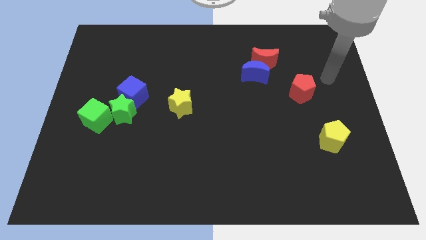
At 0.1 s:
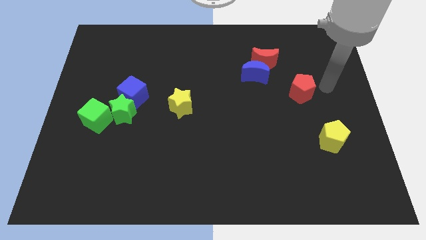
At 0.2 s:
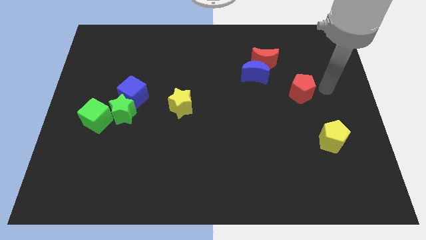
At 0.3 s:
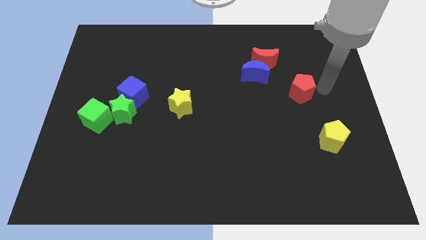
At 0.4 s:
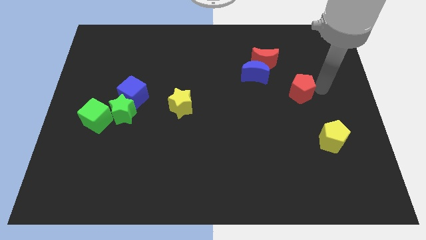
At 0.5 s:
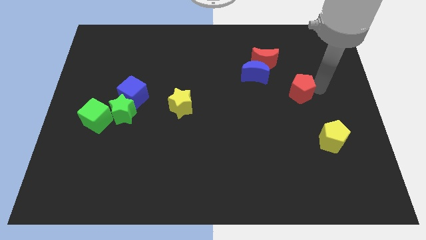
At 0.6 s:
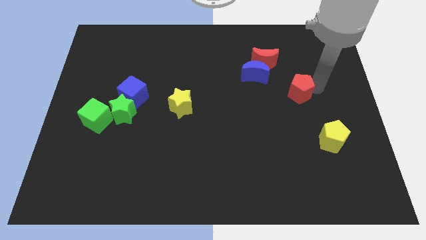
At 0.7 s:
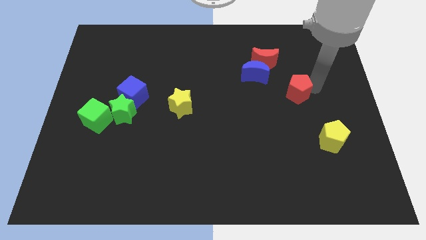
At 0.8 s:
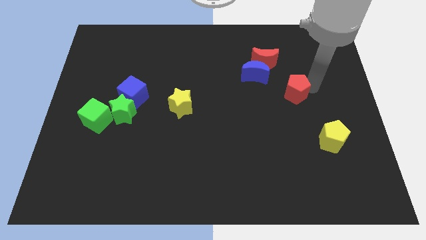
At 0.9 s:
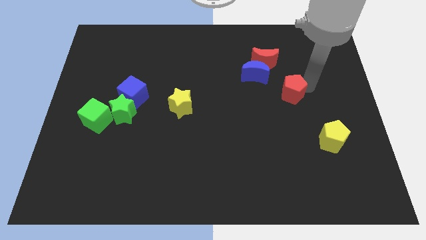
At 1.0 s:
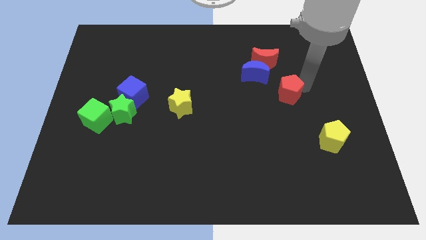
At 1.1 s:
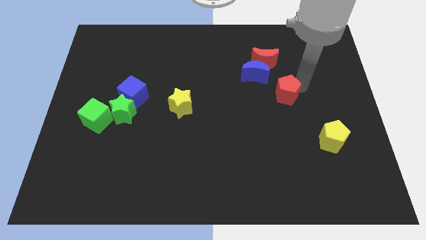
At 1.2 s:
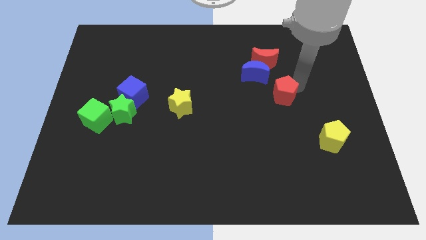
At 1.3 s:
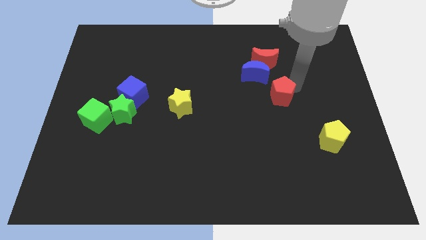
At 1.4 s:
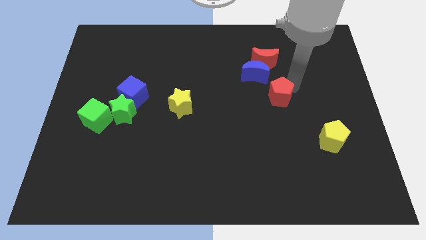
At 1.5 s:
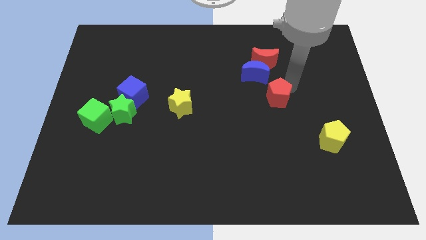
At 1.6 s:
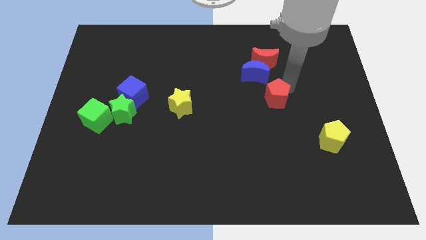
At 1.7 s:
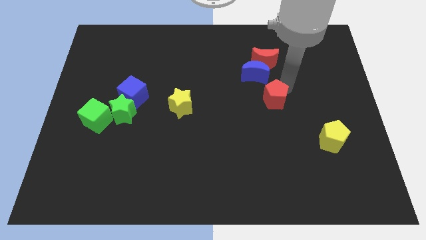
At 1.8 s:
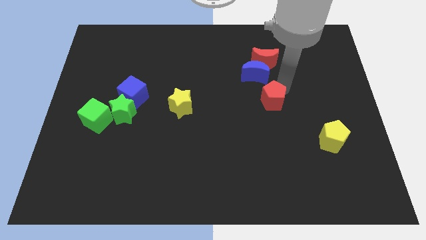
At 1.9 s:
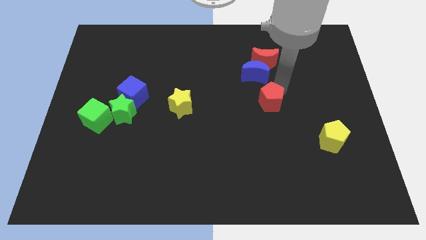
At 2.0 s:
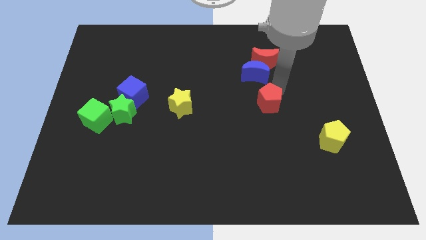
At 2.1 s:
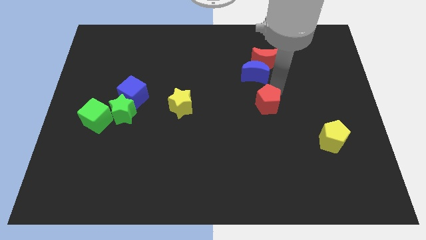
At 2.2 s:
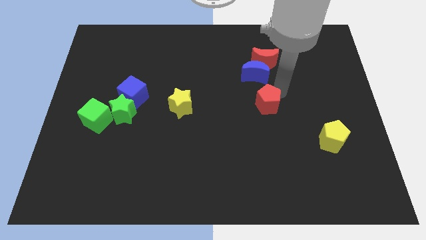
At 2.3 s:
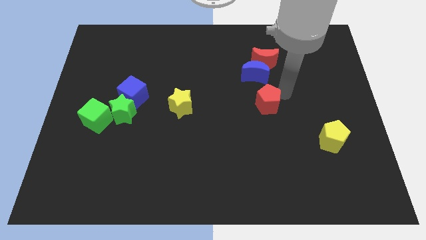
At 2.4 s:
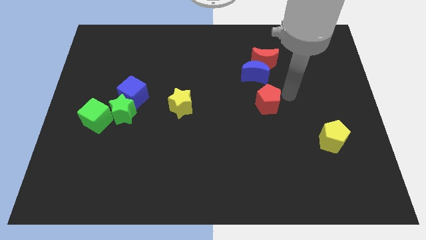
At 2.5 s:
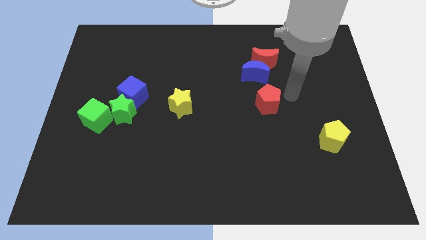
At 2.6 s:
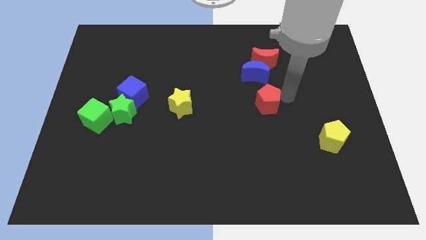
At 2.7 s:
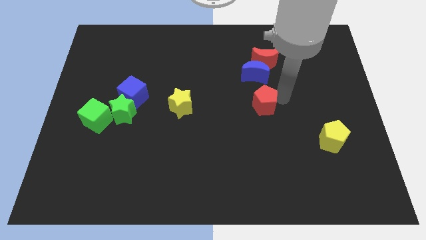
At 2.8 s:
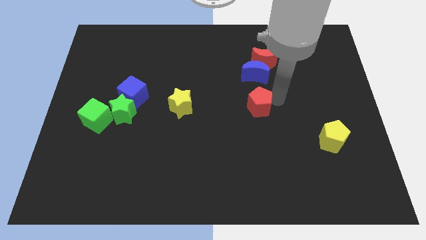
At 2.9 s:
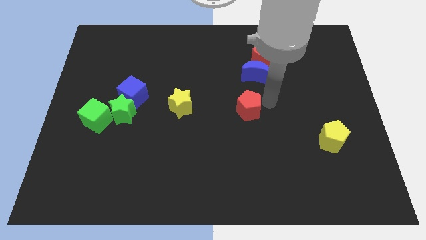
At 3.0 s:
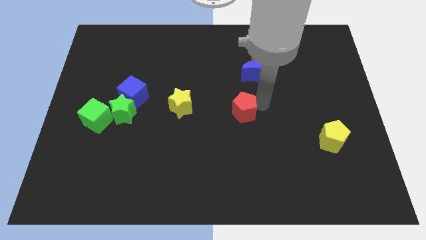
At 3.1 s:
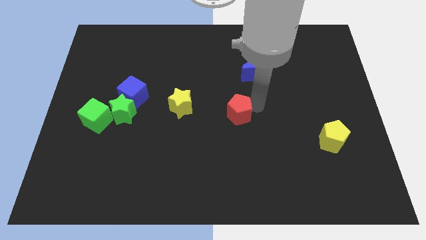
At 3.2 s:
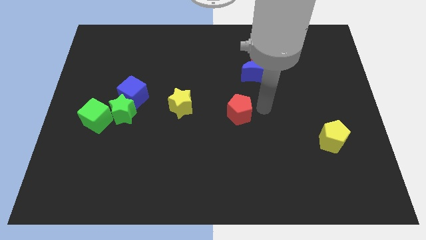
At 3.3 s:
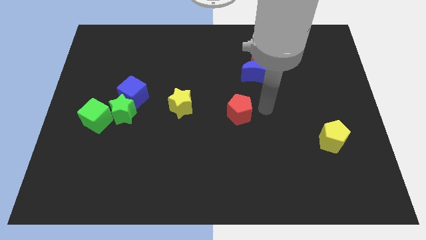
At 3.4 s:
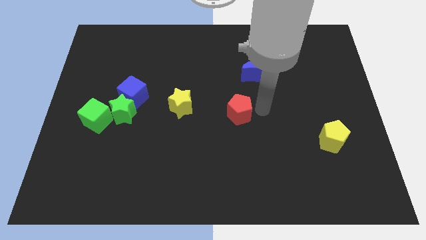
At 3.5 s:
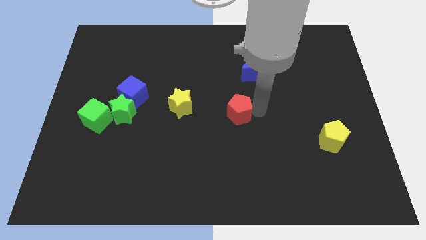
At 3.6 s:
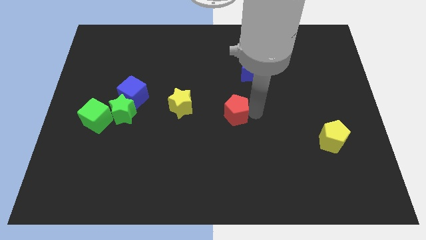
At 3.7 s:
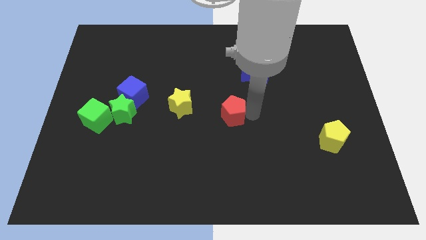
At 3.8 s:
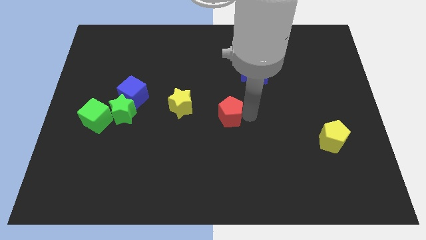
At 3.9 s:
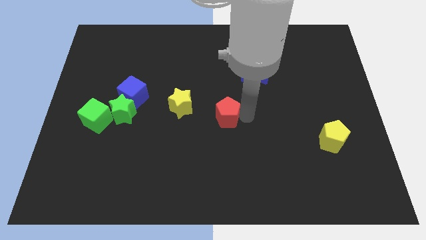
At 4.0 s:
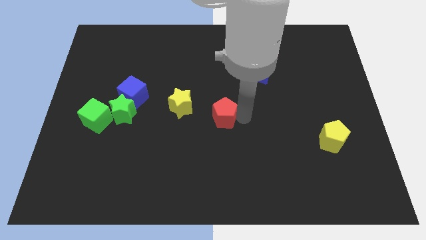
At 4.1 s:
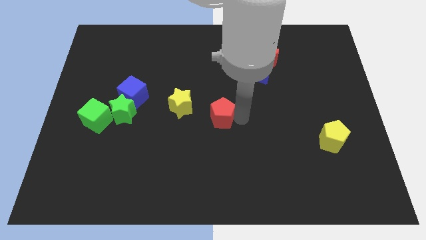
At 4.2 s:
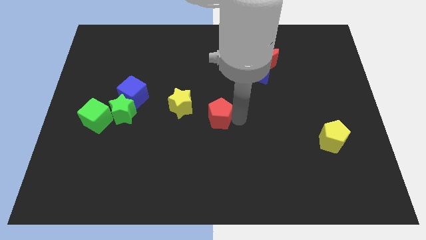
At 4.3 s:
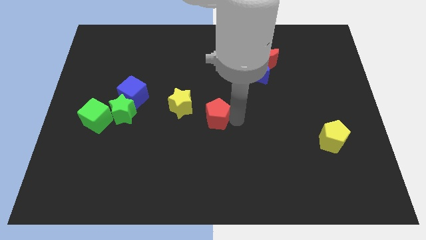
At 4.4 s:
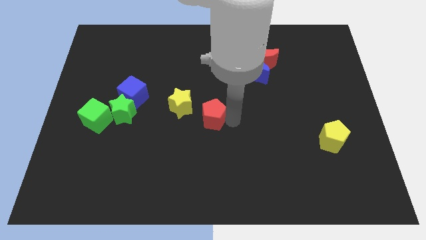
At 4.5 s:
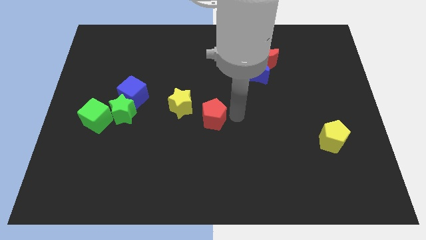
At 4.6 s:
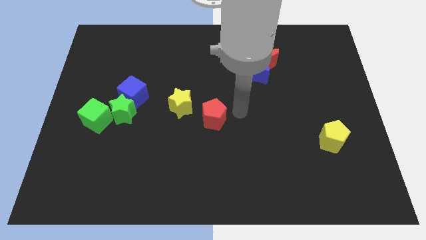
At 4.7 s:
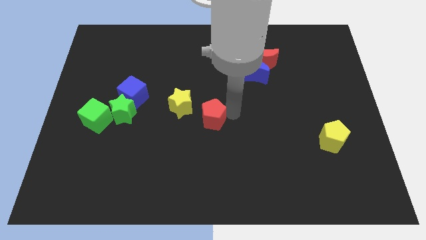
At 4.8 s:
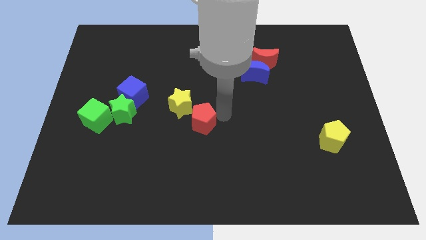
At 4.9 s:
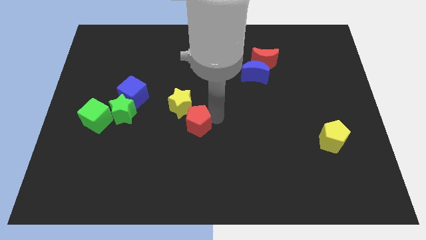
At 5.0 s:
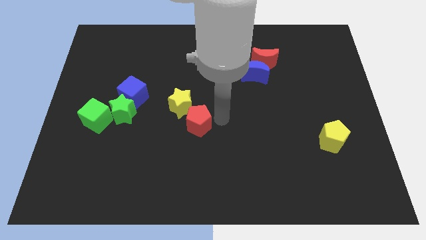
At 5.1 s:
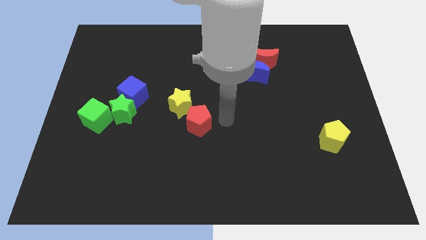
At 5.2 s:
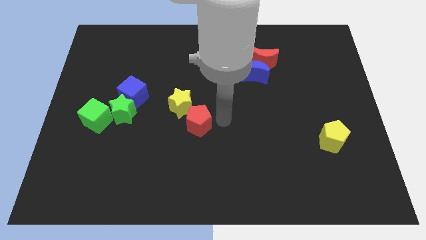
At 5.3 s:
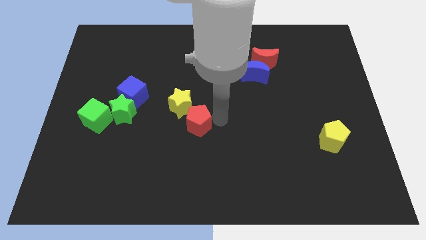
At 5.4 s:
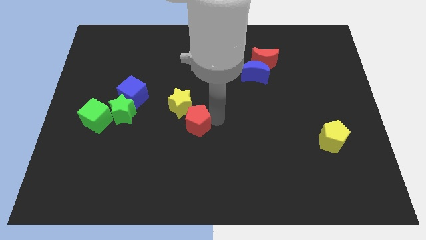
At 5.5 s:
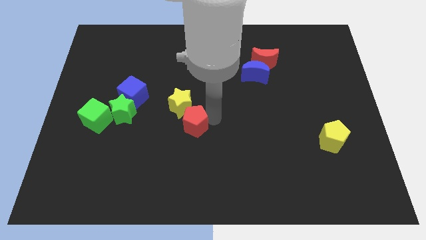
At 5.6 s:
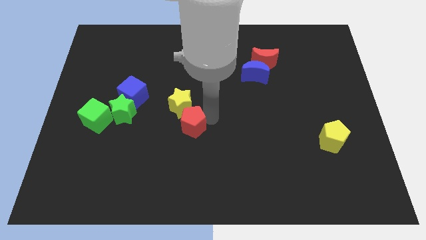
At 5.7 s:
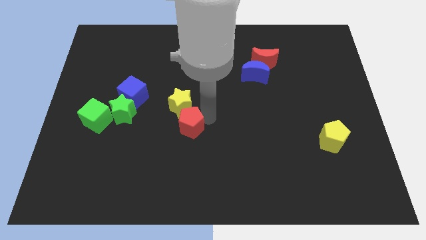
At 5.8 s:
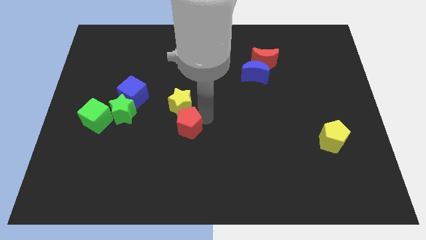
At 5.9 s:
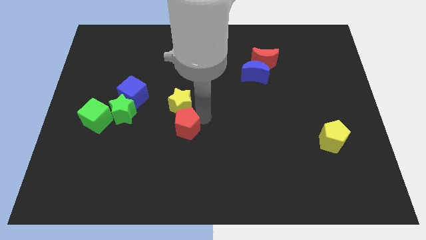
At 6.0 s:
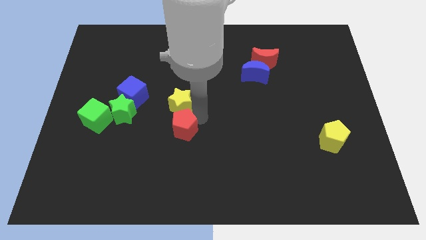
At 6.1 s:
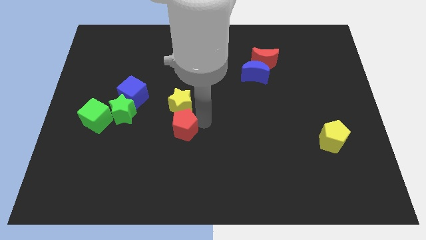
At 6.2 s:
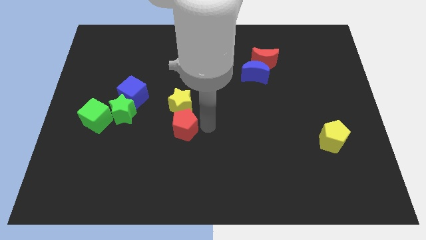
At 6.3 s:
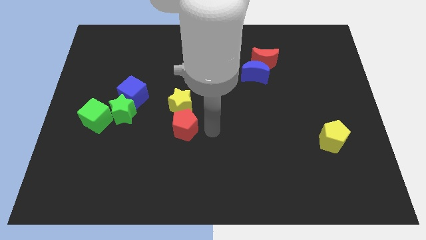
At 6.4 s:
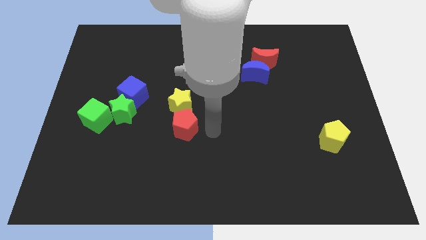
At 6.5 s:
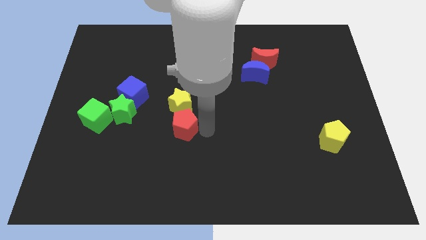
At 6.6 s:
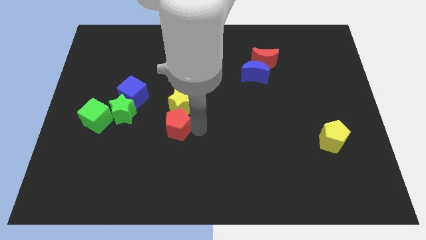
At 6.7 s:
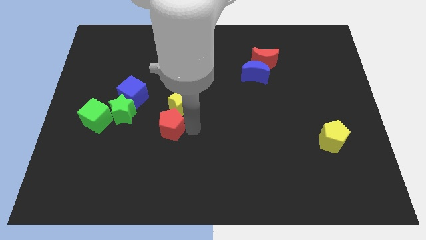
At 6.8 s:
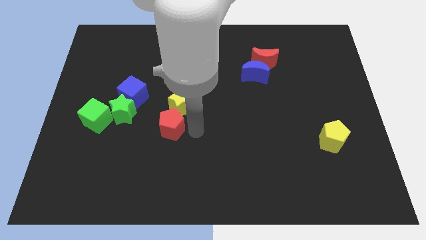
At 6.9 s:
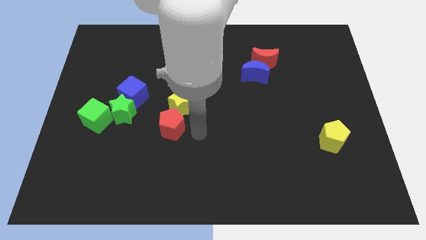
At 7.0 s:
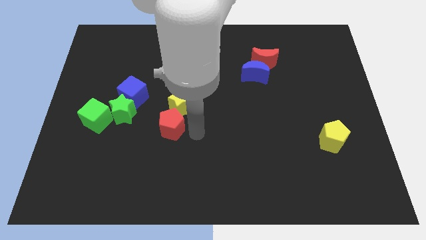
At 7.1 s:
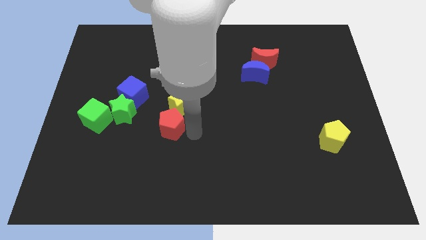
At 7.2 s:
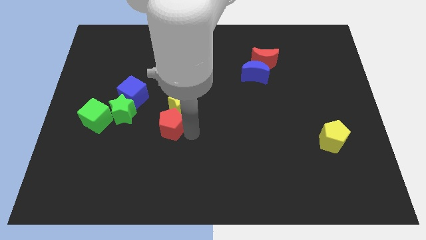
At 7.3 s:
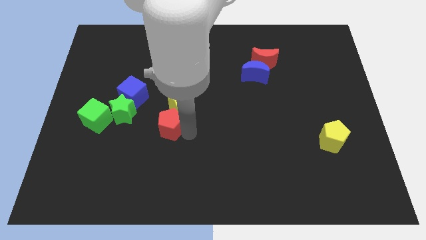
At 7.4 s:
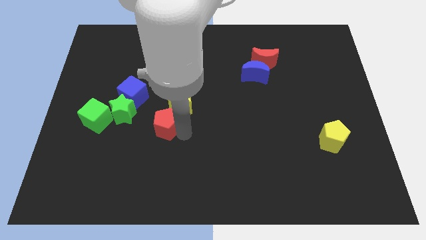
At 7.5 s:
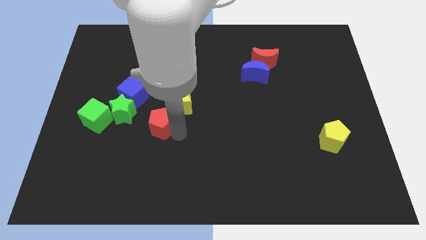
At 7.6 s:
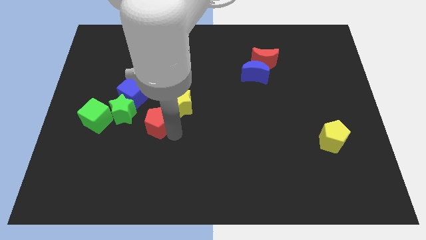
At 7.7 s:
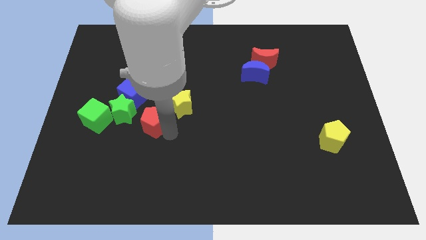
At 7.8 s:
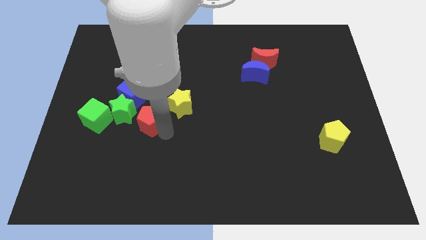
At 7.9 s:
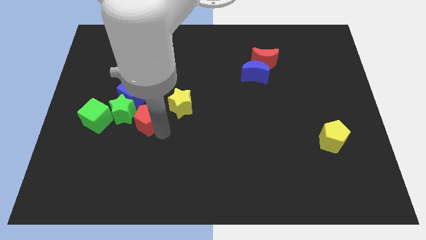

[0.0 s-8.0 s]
move the red pentagon next to the green star
